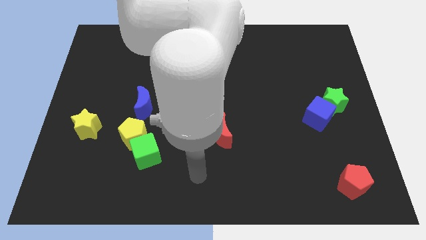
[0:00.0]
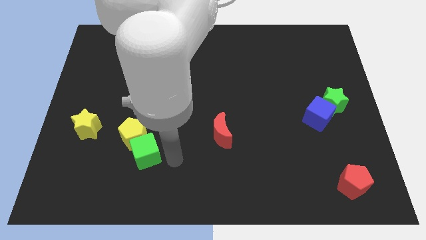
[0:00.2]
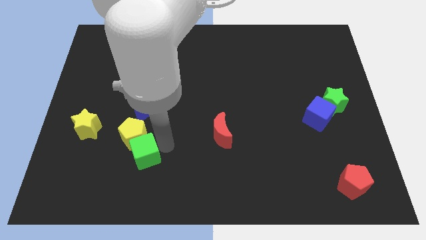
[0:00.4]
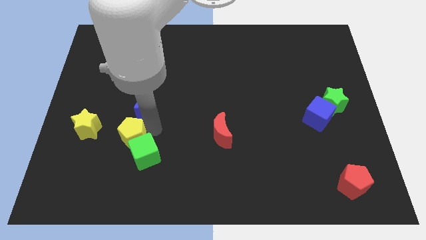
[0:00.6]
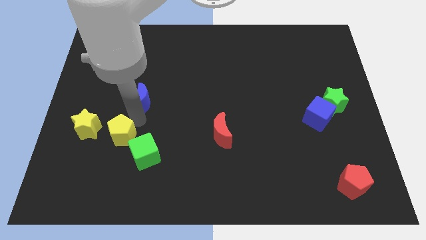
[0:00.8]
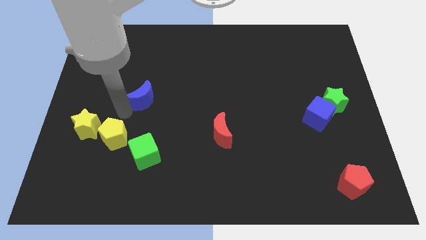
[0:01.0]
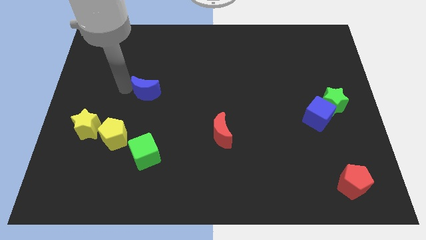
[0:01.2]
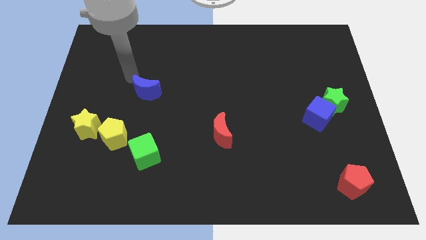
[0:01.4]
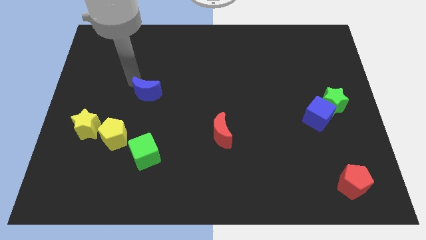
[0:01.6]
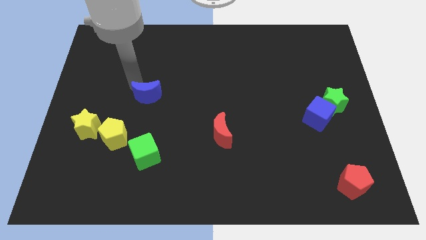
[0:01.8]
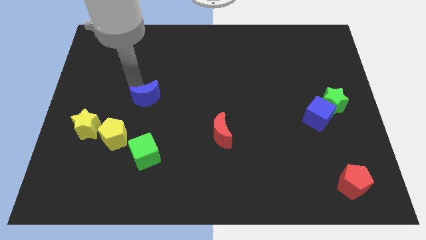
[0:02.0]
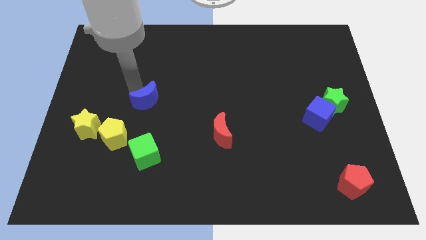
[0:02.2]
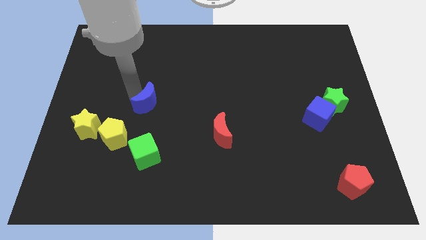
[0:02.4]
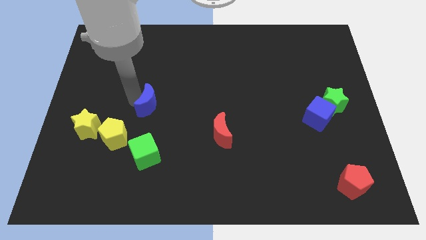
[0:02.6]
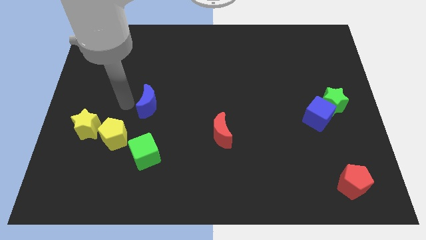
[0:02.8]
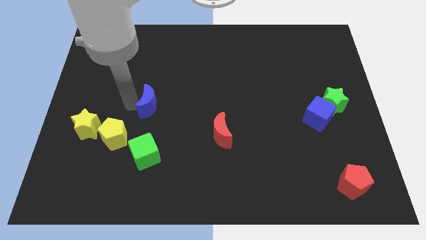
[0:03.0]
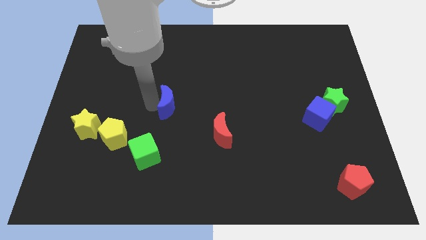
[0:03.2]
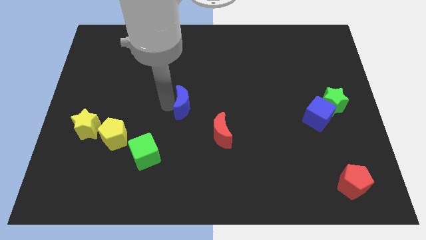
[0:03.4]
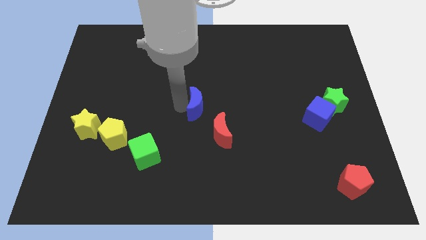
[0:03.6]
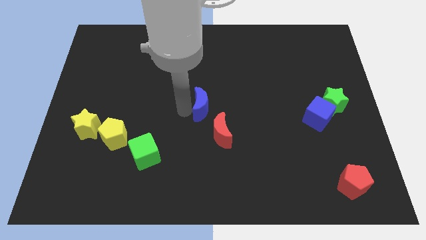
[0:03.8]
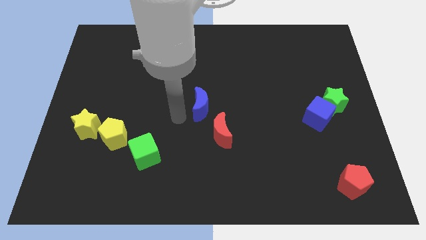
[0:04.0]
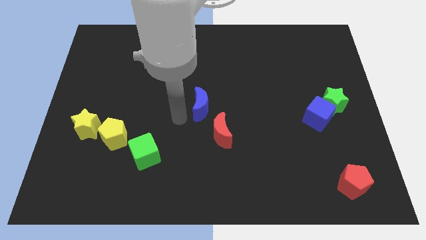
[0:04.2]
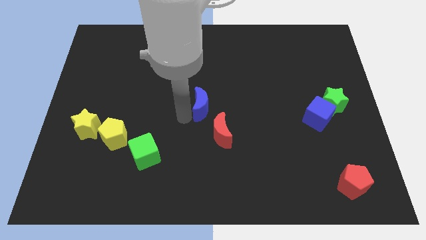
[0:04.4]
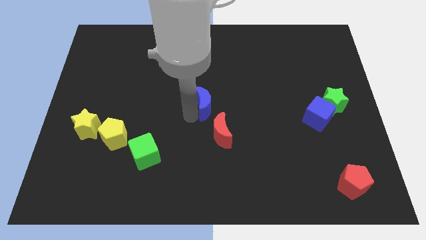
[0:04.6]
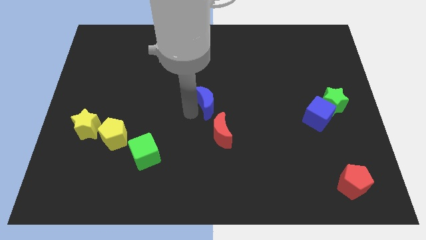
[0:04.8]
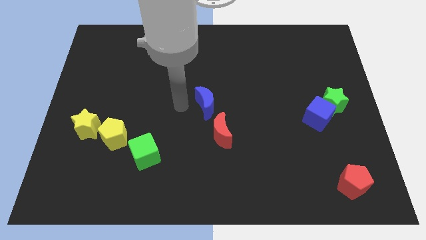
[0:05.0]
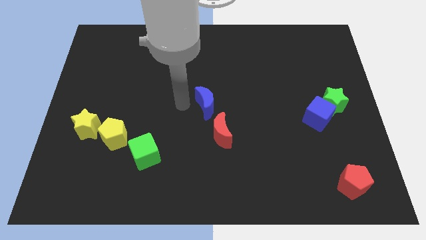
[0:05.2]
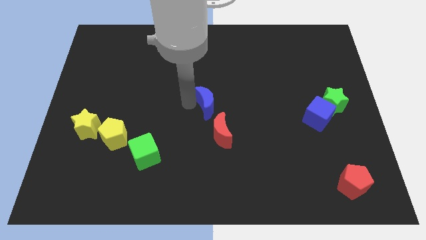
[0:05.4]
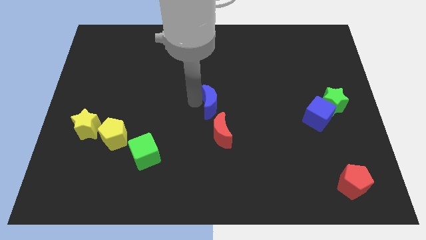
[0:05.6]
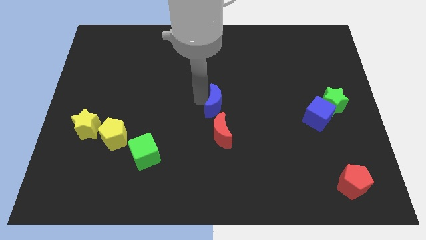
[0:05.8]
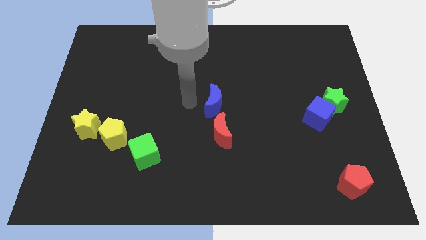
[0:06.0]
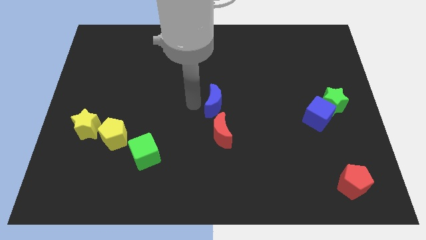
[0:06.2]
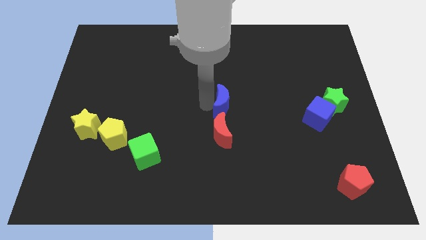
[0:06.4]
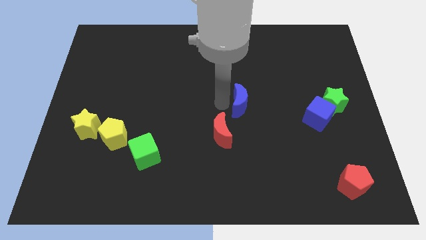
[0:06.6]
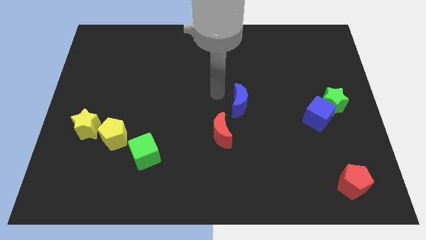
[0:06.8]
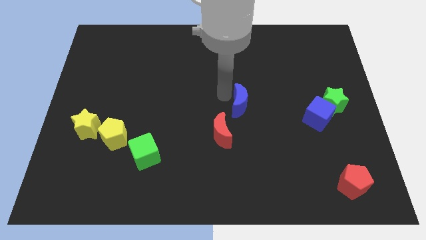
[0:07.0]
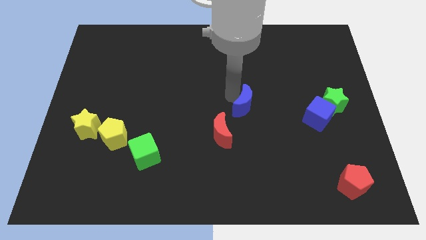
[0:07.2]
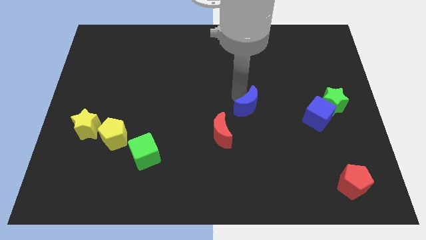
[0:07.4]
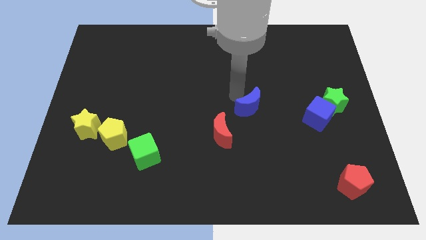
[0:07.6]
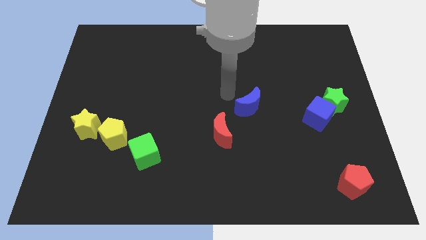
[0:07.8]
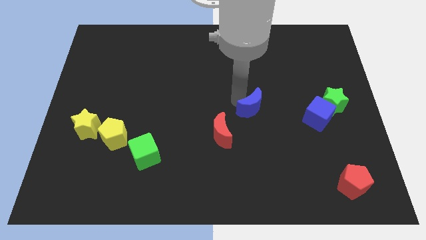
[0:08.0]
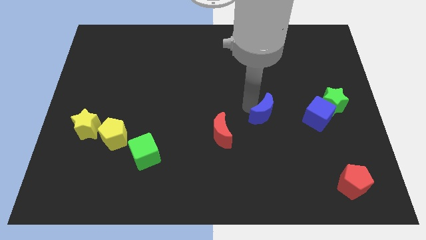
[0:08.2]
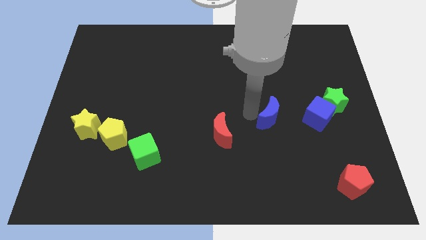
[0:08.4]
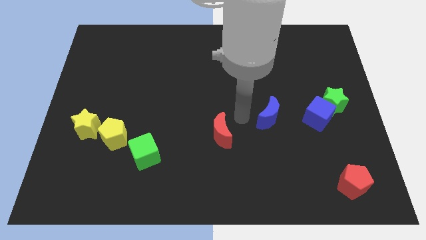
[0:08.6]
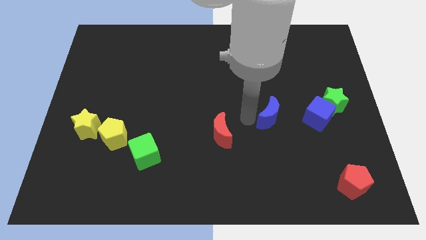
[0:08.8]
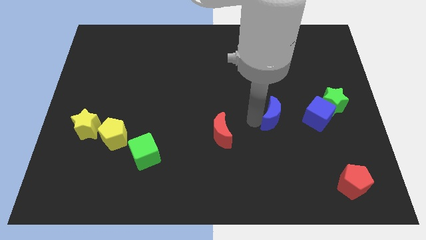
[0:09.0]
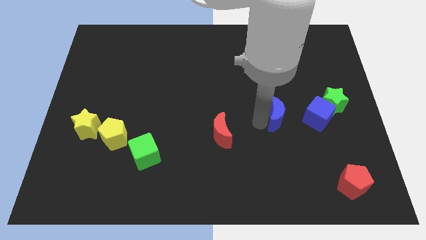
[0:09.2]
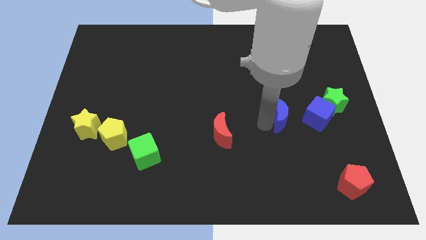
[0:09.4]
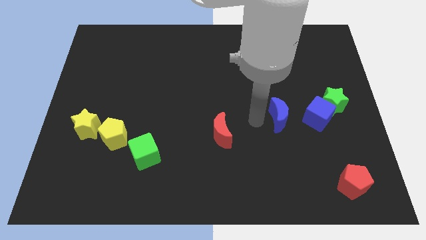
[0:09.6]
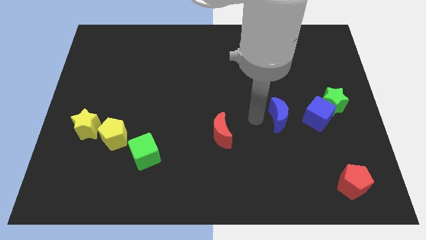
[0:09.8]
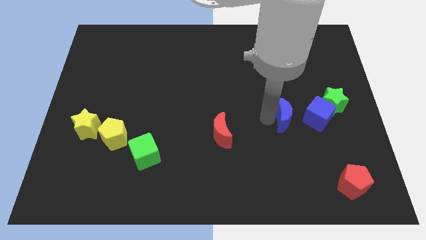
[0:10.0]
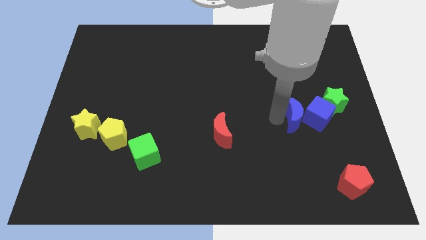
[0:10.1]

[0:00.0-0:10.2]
move the blue moon to the blue cube

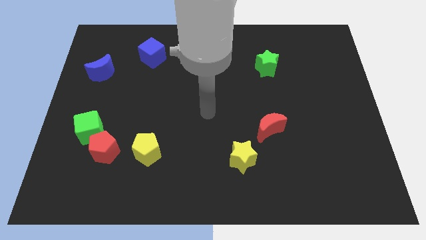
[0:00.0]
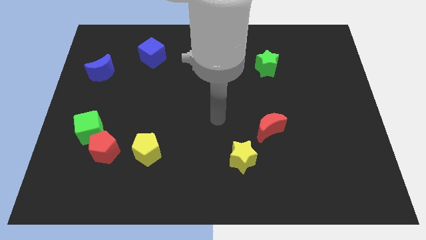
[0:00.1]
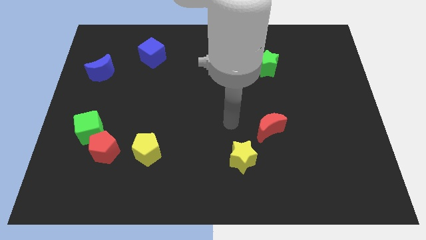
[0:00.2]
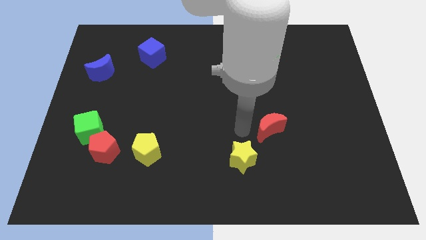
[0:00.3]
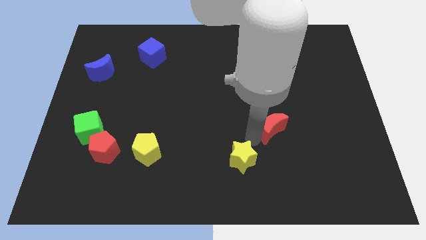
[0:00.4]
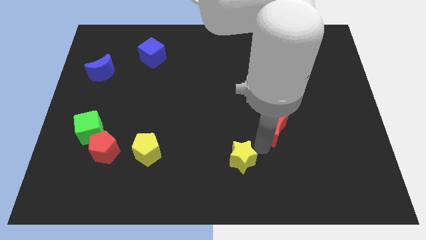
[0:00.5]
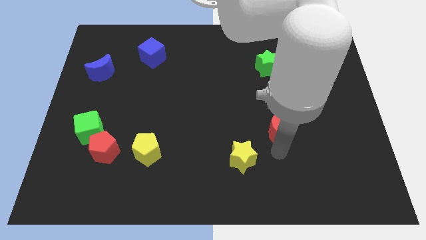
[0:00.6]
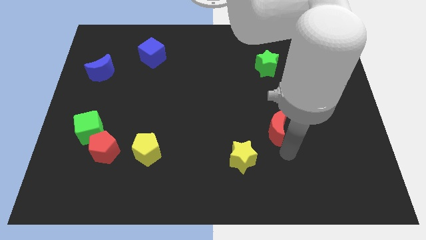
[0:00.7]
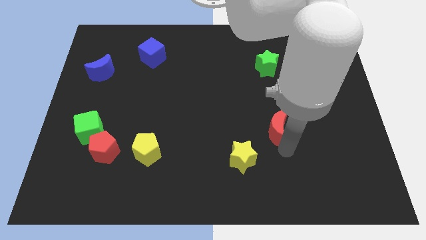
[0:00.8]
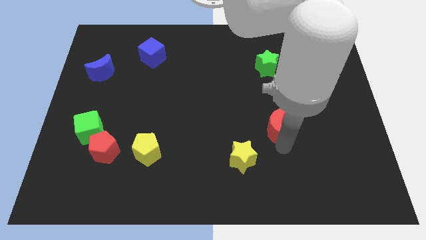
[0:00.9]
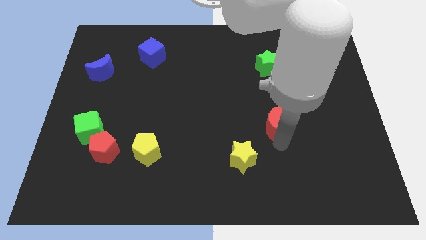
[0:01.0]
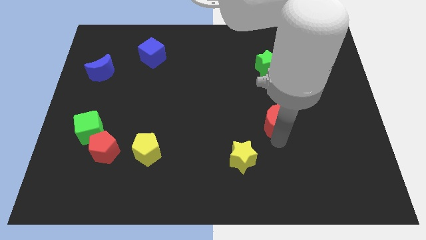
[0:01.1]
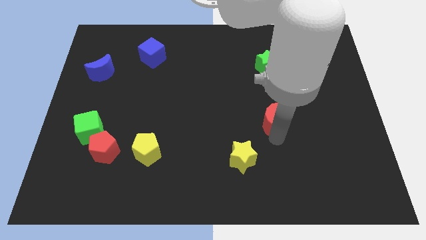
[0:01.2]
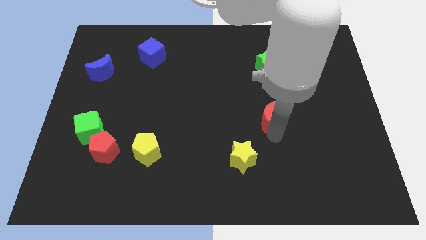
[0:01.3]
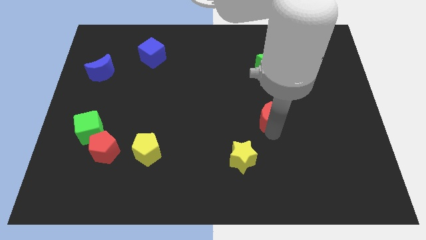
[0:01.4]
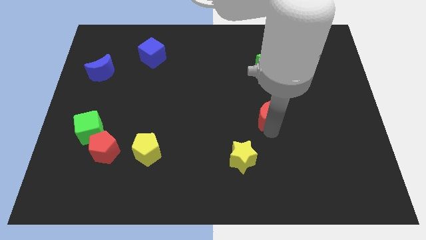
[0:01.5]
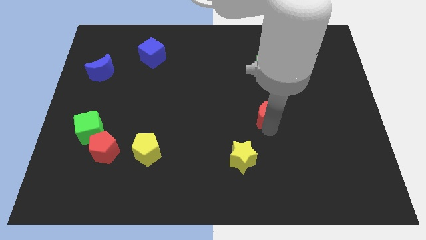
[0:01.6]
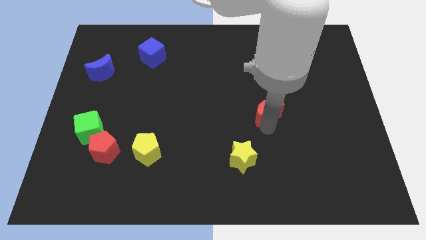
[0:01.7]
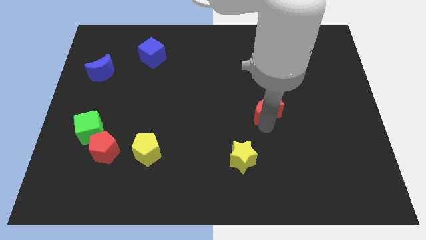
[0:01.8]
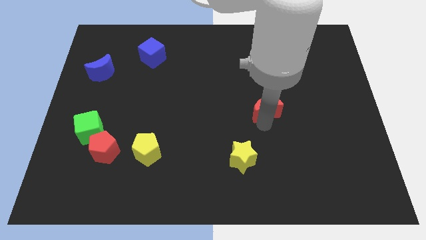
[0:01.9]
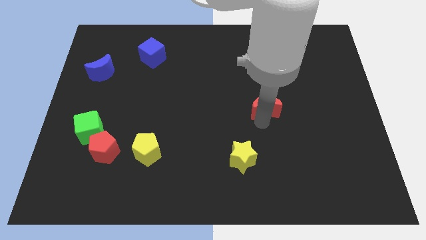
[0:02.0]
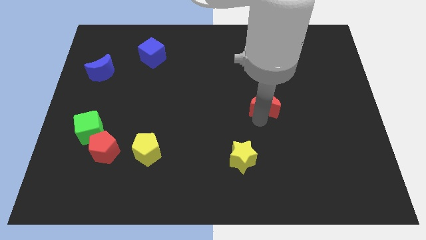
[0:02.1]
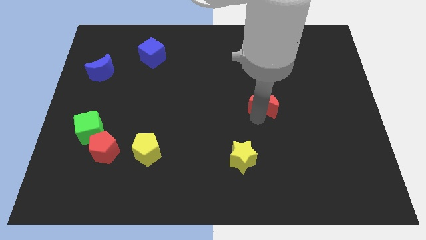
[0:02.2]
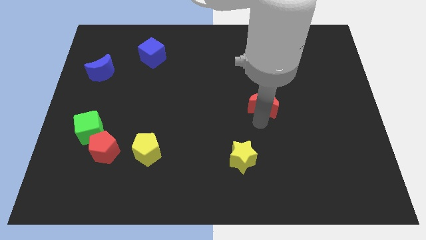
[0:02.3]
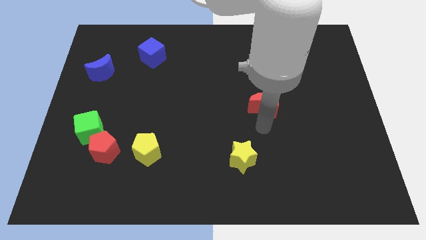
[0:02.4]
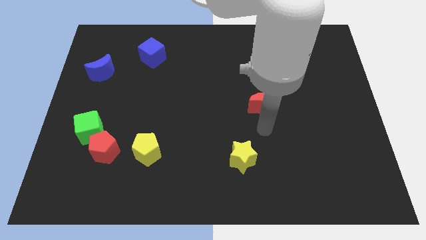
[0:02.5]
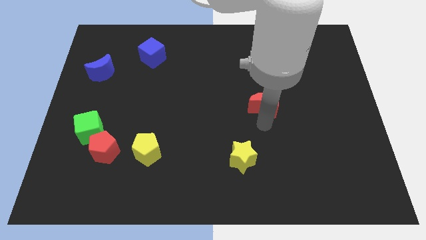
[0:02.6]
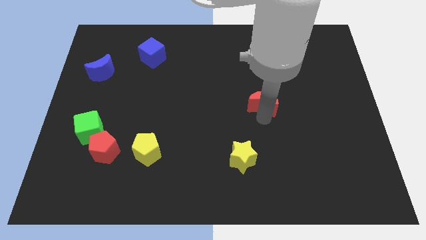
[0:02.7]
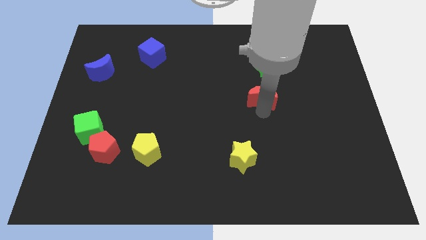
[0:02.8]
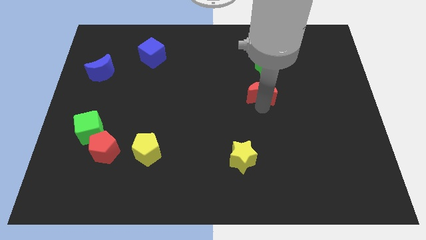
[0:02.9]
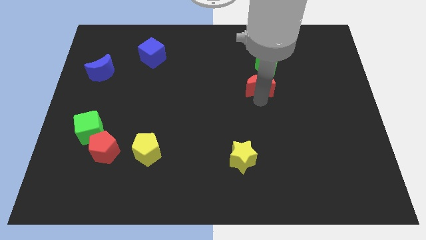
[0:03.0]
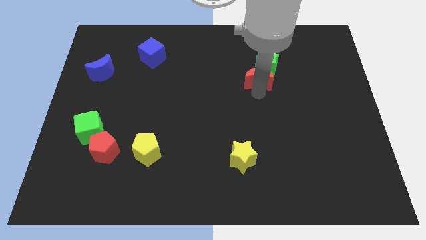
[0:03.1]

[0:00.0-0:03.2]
push the red moon to the green star
